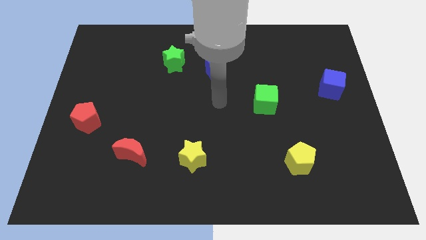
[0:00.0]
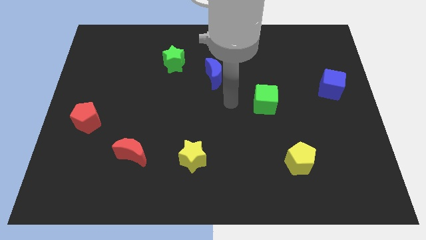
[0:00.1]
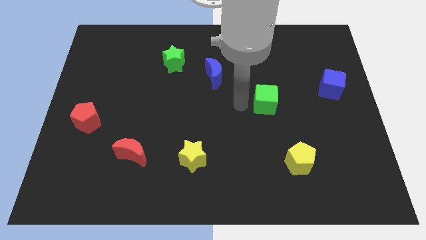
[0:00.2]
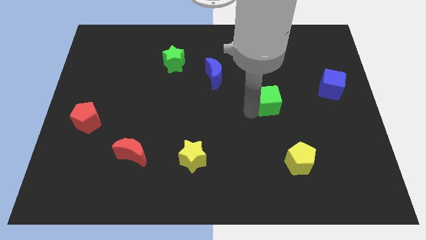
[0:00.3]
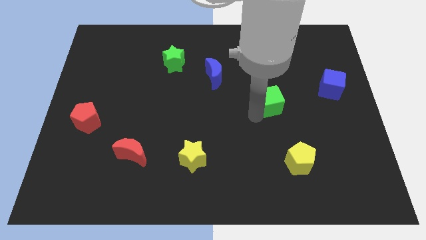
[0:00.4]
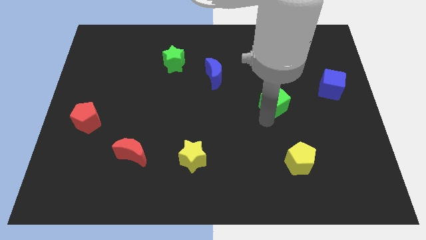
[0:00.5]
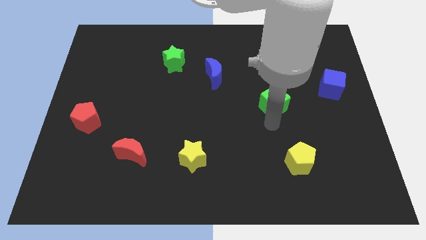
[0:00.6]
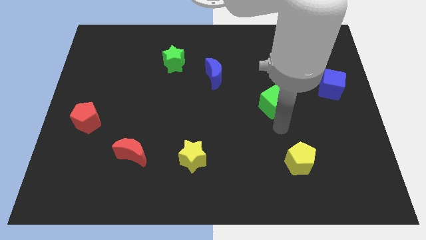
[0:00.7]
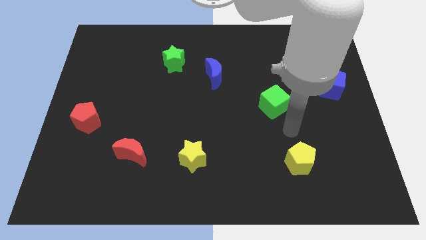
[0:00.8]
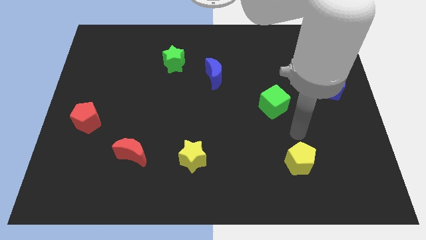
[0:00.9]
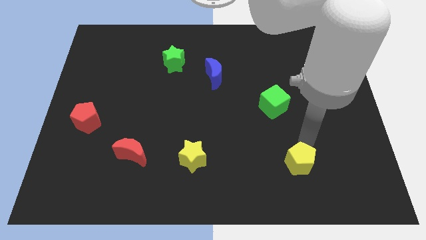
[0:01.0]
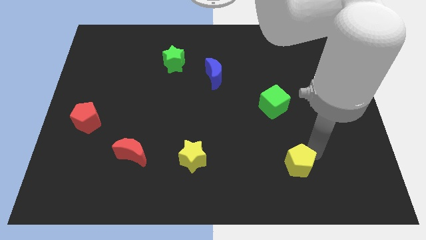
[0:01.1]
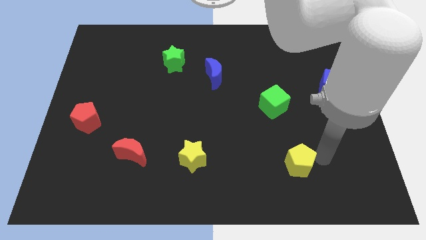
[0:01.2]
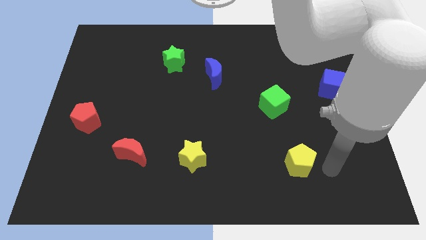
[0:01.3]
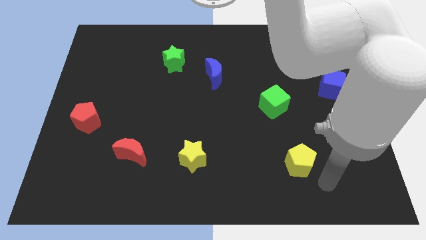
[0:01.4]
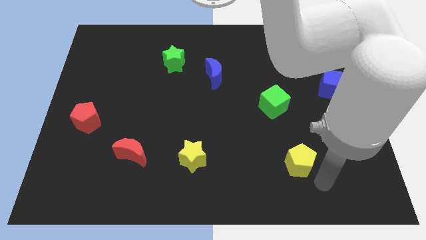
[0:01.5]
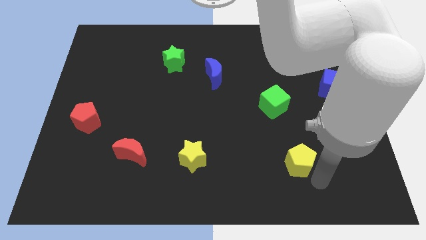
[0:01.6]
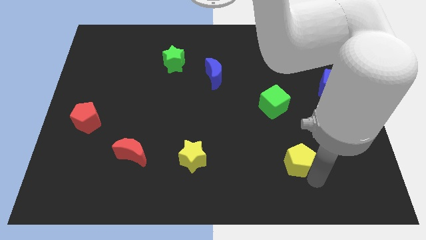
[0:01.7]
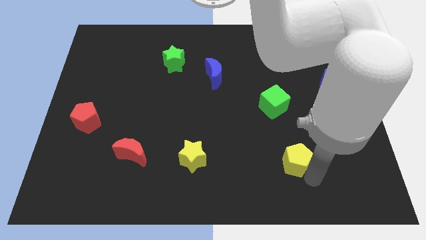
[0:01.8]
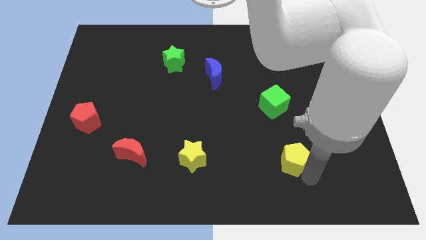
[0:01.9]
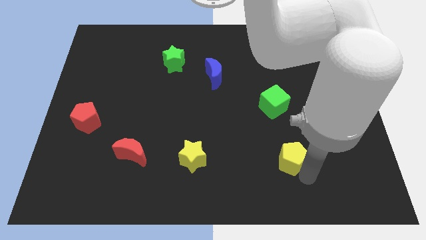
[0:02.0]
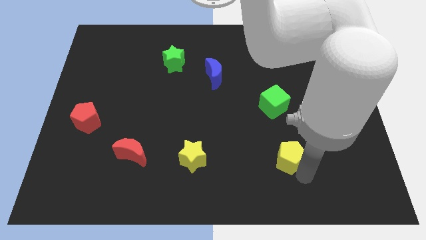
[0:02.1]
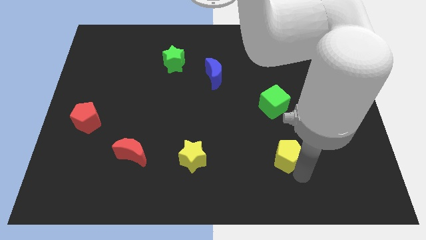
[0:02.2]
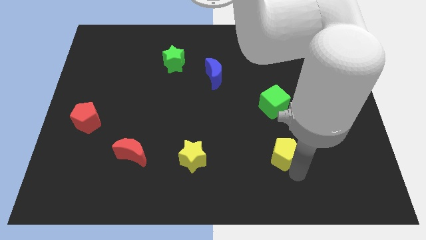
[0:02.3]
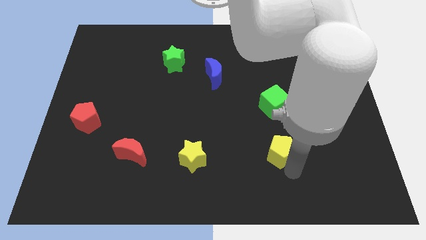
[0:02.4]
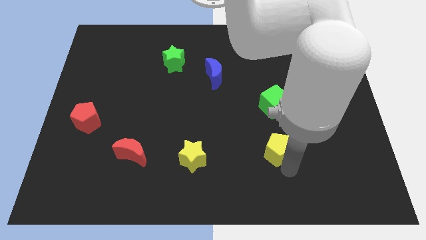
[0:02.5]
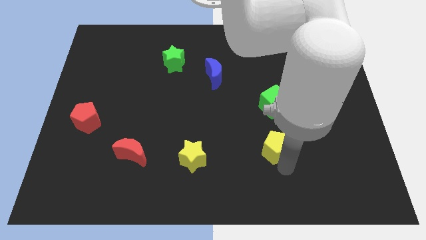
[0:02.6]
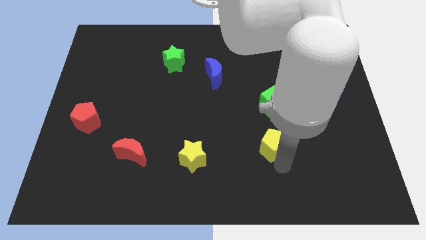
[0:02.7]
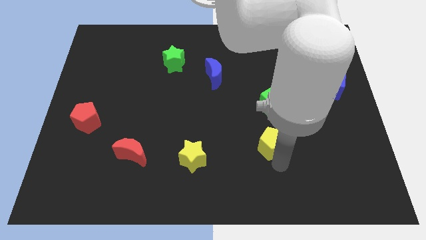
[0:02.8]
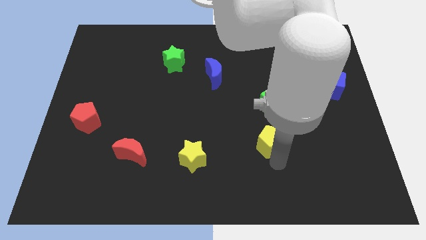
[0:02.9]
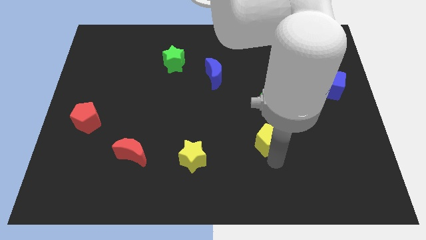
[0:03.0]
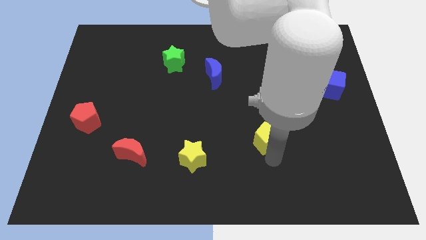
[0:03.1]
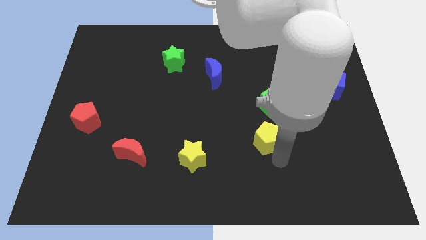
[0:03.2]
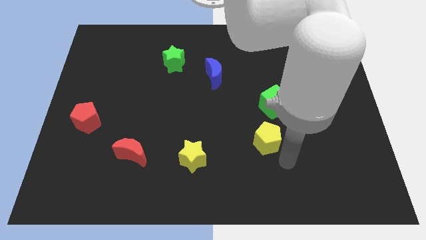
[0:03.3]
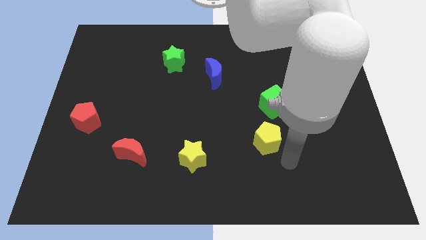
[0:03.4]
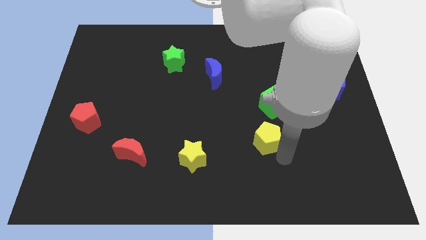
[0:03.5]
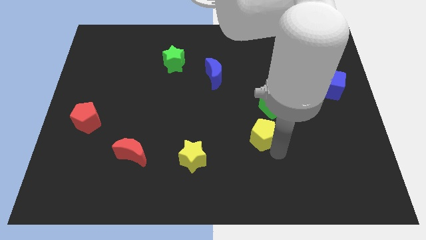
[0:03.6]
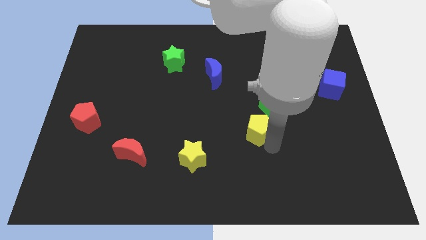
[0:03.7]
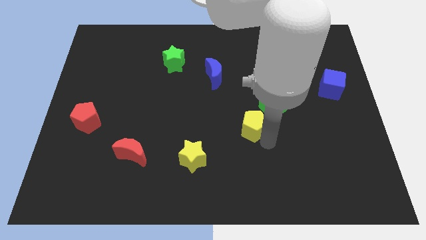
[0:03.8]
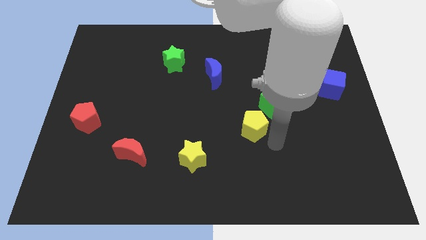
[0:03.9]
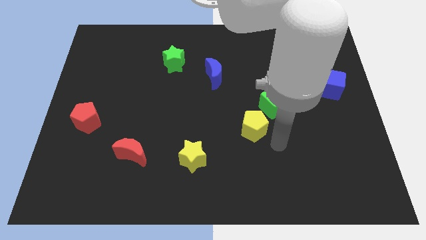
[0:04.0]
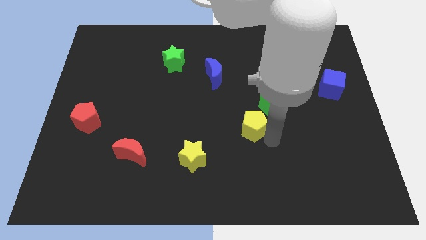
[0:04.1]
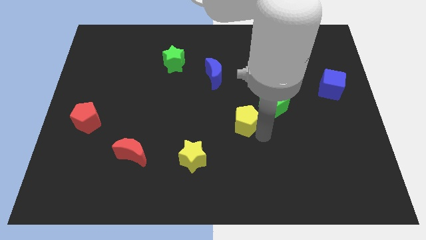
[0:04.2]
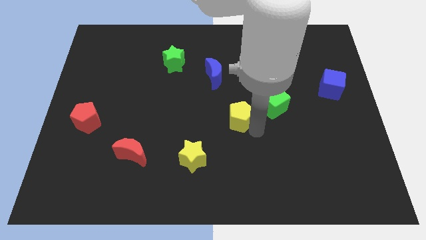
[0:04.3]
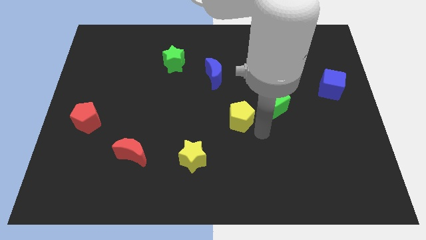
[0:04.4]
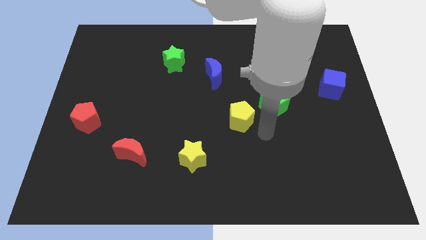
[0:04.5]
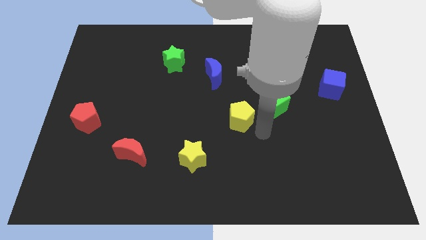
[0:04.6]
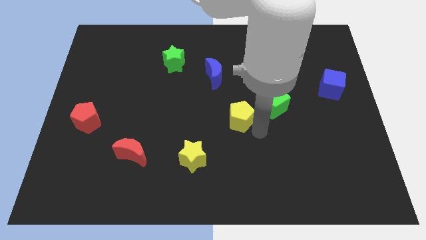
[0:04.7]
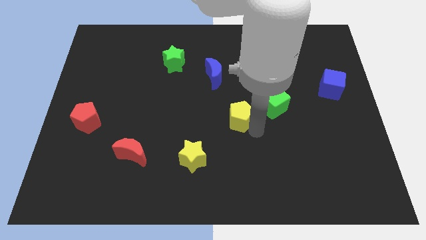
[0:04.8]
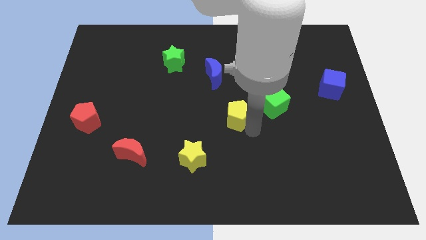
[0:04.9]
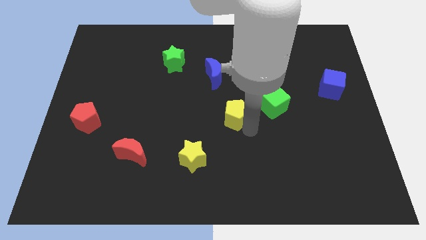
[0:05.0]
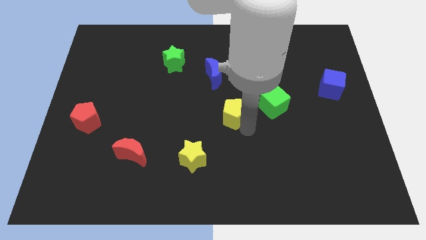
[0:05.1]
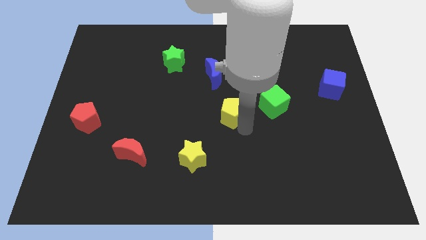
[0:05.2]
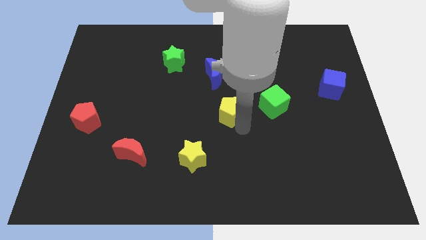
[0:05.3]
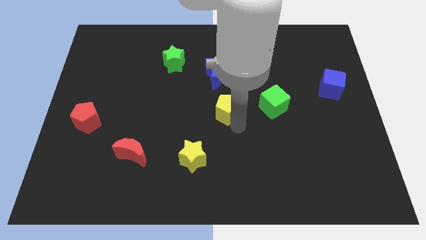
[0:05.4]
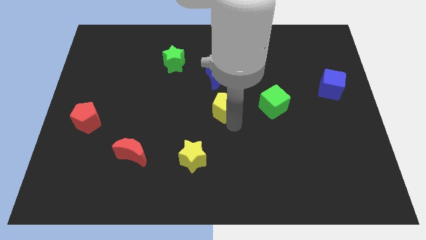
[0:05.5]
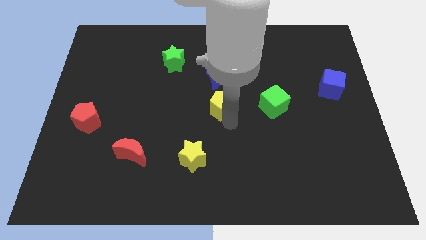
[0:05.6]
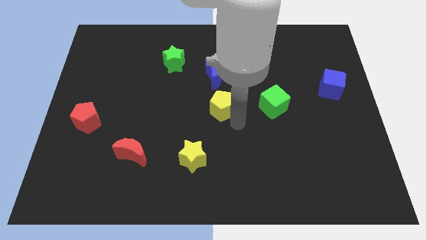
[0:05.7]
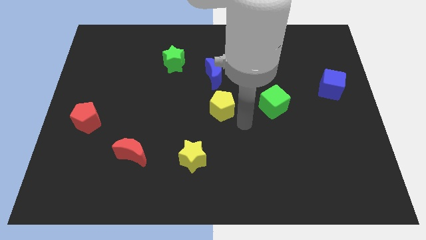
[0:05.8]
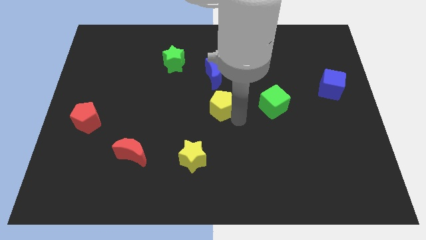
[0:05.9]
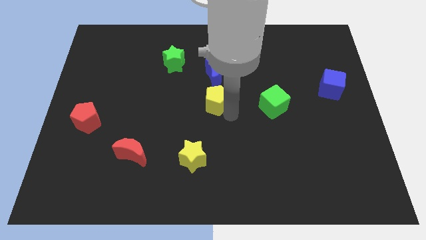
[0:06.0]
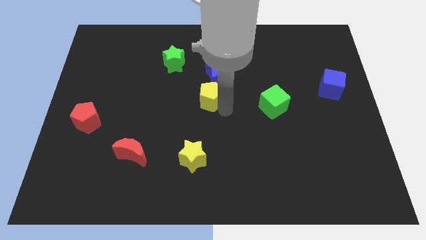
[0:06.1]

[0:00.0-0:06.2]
push the yellow pentagon diagonally down and to the left of the blue moon

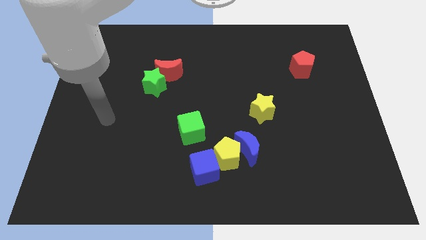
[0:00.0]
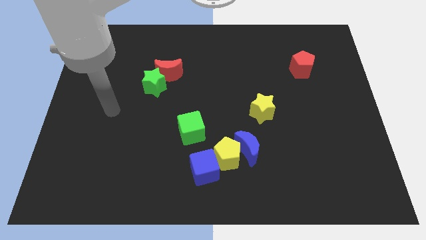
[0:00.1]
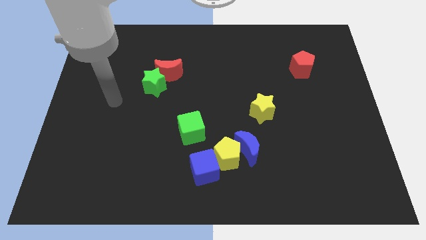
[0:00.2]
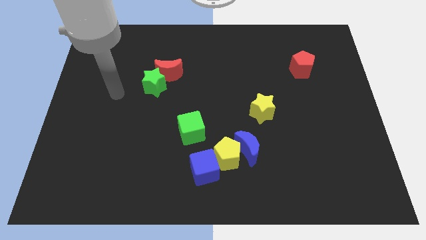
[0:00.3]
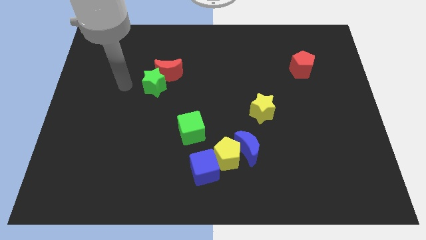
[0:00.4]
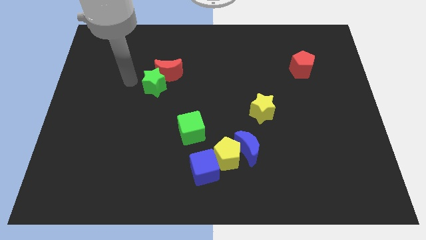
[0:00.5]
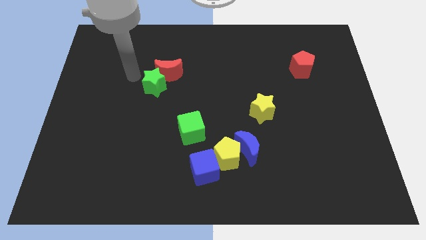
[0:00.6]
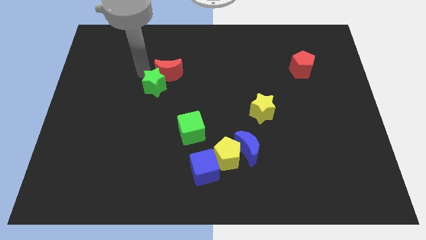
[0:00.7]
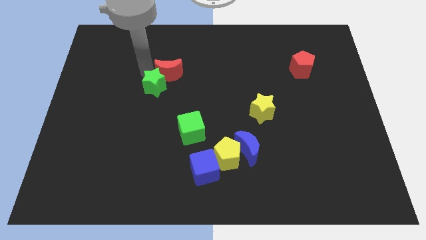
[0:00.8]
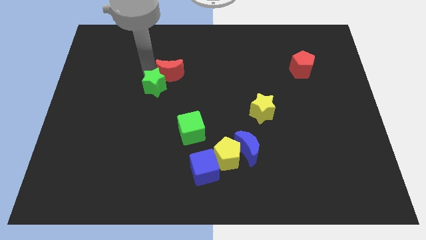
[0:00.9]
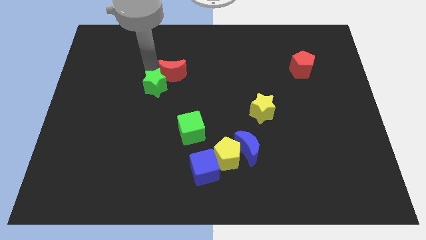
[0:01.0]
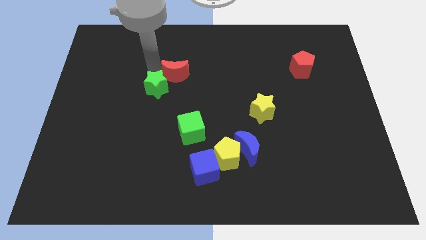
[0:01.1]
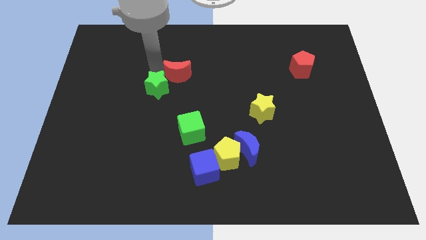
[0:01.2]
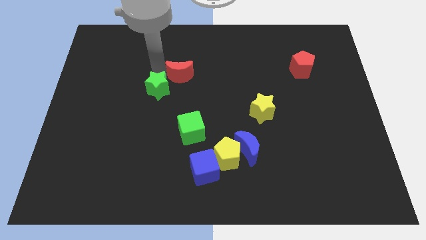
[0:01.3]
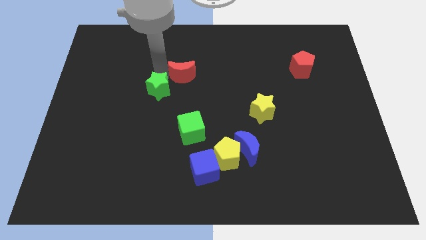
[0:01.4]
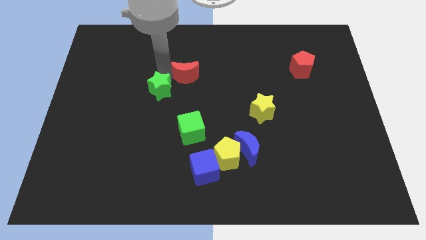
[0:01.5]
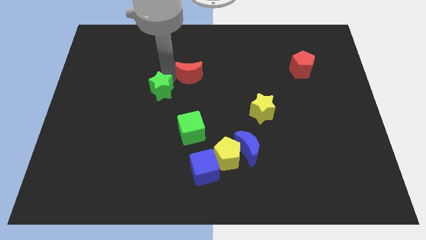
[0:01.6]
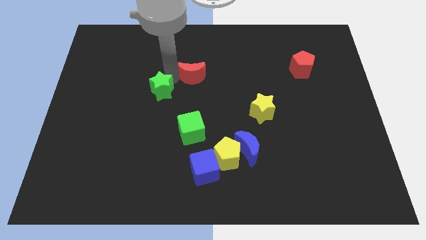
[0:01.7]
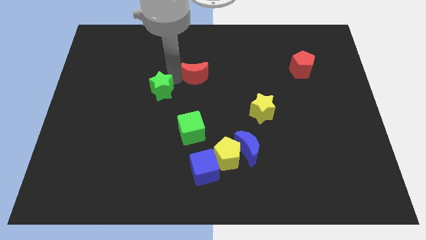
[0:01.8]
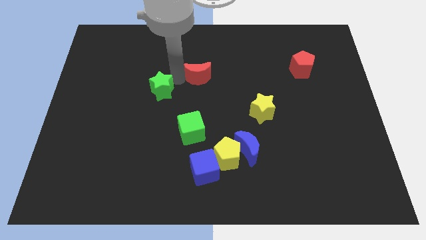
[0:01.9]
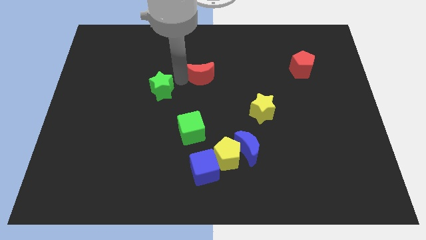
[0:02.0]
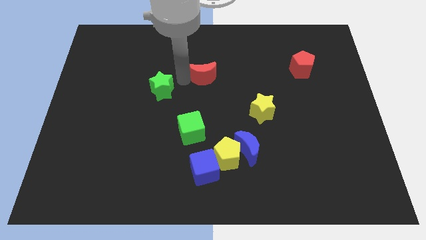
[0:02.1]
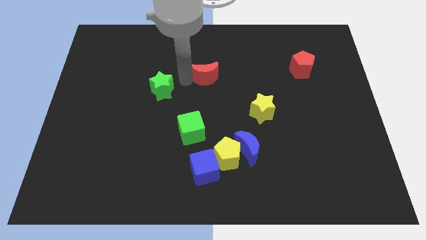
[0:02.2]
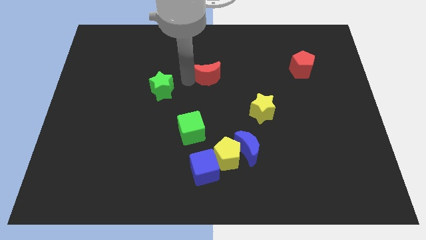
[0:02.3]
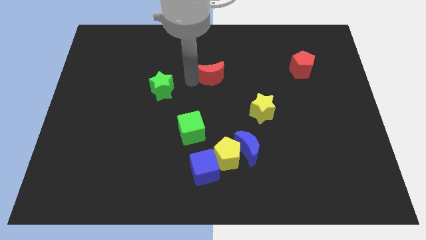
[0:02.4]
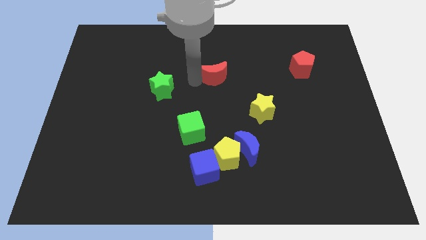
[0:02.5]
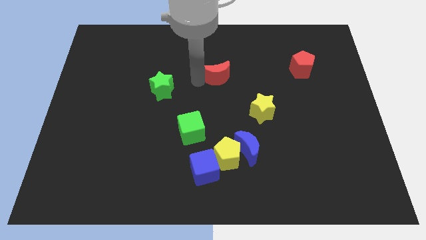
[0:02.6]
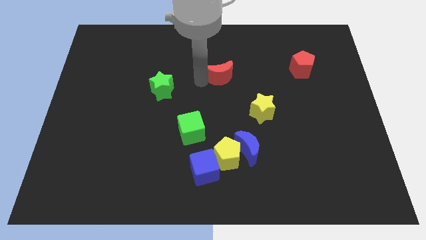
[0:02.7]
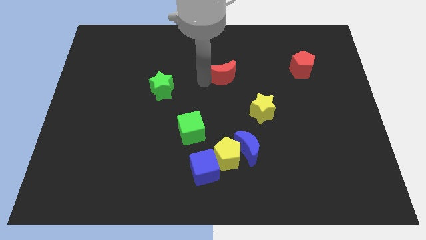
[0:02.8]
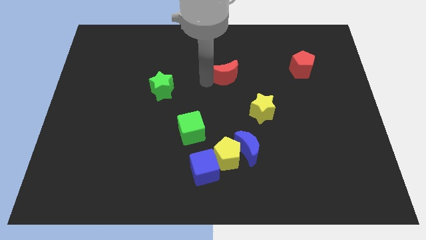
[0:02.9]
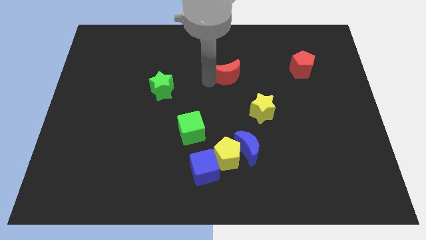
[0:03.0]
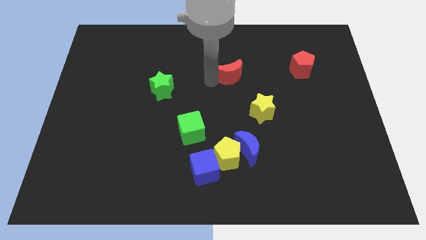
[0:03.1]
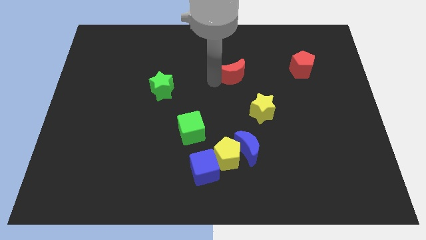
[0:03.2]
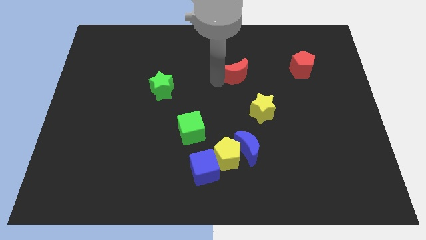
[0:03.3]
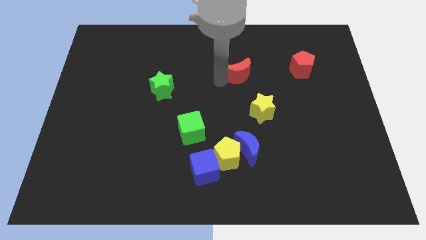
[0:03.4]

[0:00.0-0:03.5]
move the red moon to the top of the yellow star
